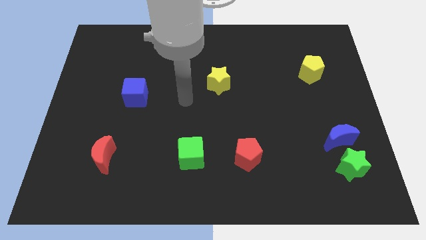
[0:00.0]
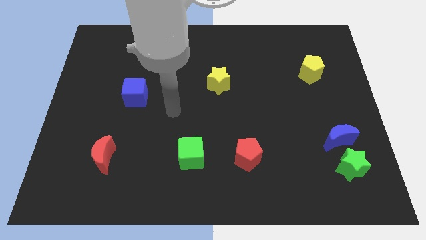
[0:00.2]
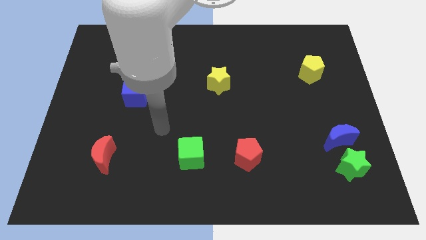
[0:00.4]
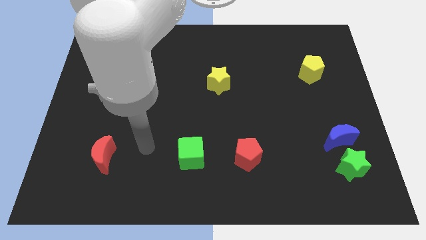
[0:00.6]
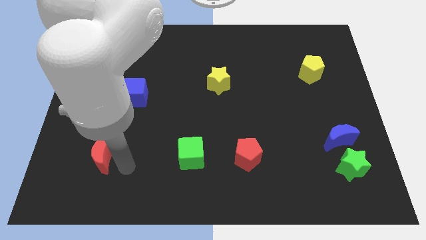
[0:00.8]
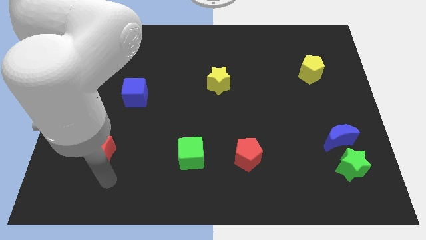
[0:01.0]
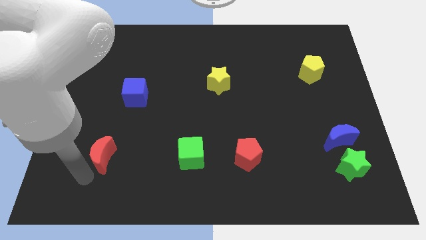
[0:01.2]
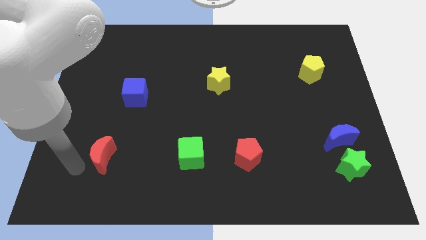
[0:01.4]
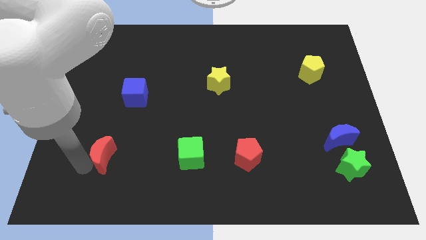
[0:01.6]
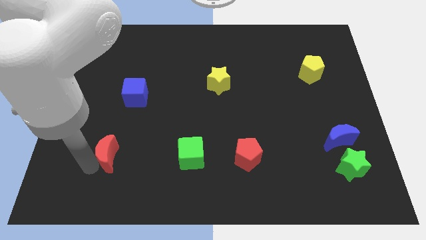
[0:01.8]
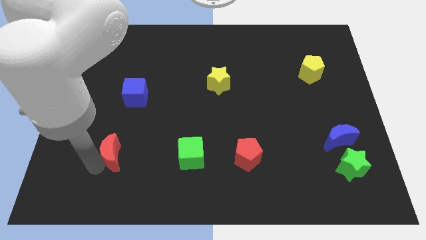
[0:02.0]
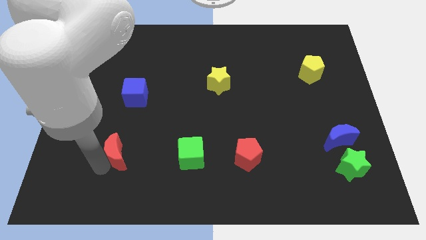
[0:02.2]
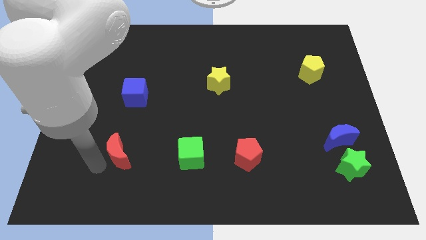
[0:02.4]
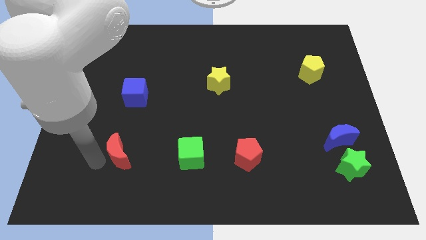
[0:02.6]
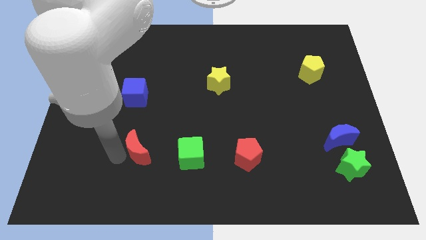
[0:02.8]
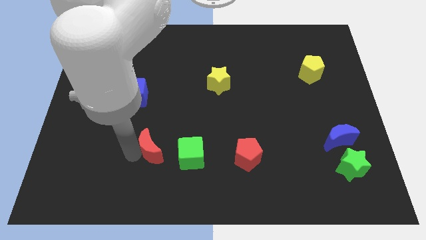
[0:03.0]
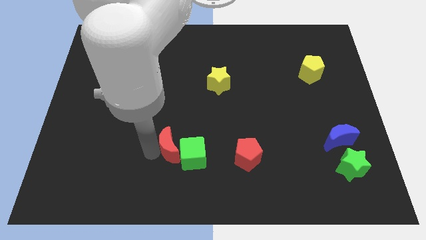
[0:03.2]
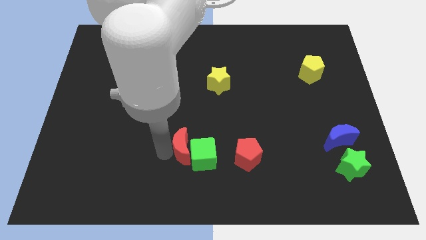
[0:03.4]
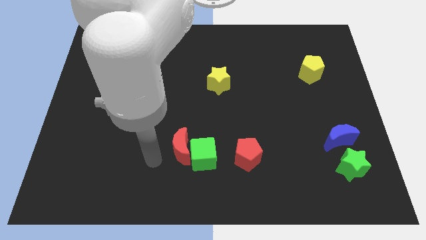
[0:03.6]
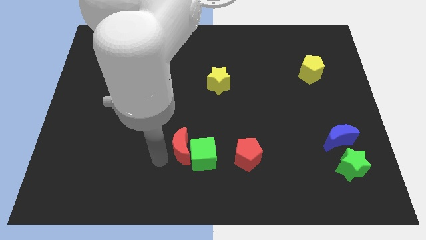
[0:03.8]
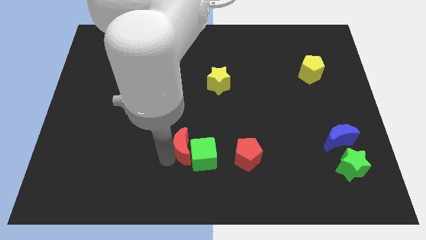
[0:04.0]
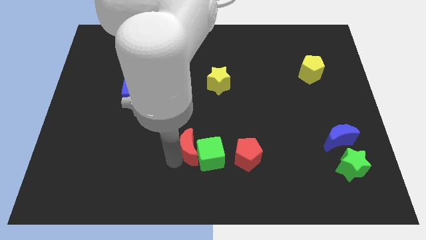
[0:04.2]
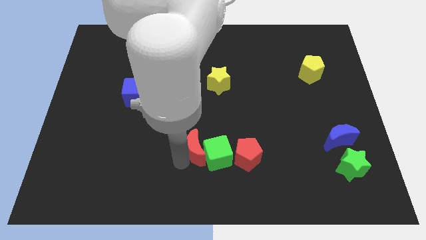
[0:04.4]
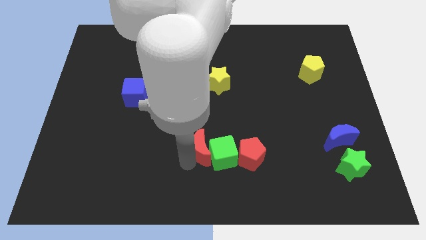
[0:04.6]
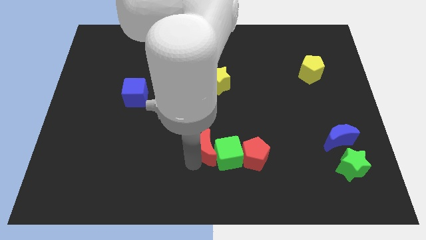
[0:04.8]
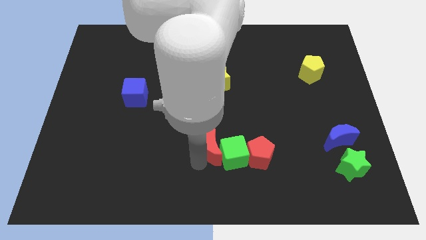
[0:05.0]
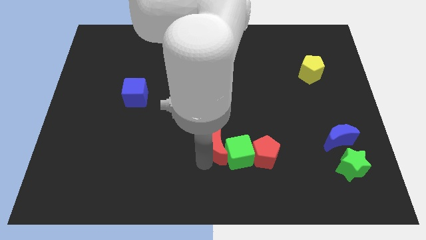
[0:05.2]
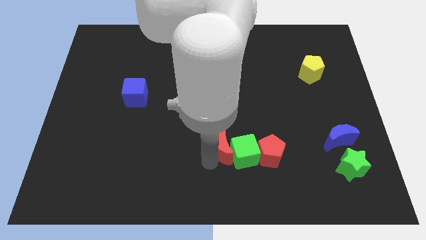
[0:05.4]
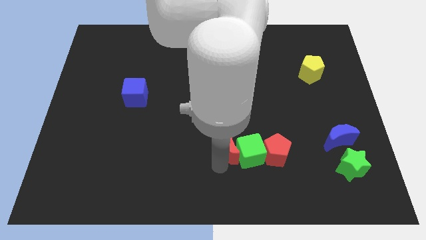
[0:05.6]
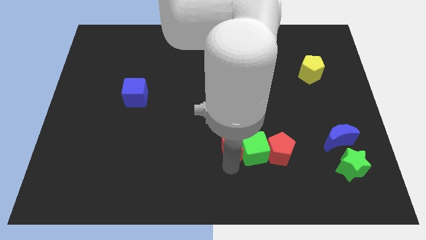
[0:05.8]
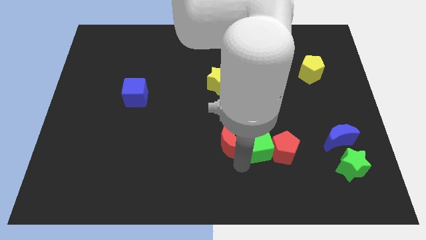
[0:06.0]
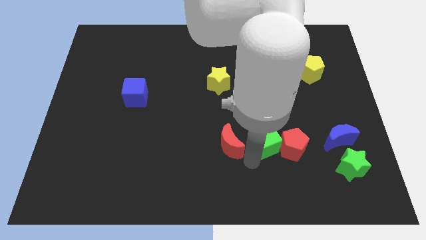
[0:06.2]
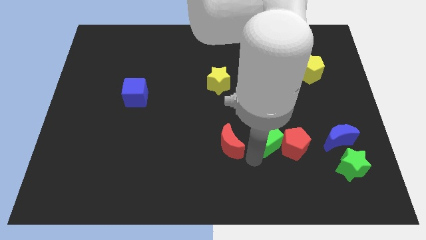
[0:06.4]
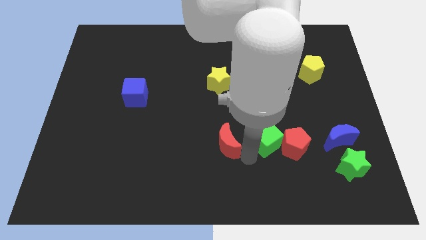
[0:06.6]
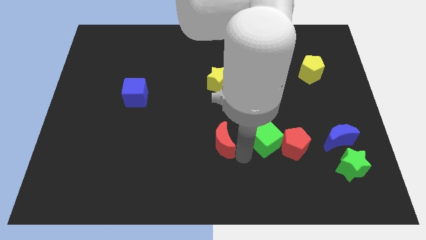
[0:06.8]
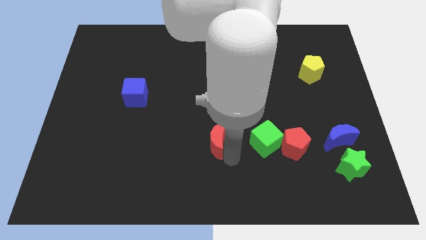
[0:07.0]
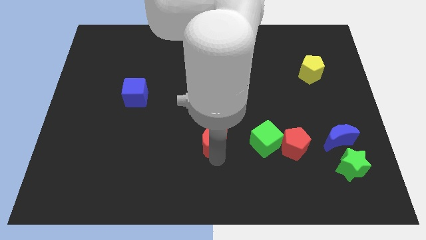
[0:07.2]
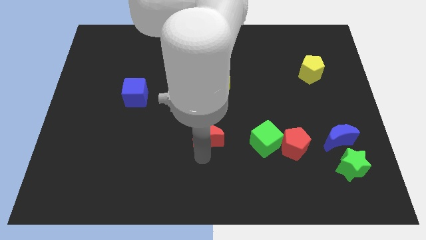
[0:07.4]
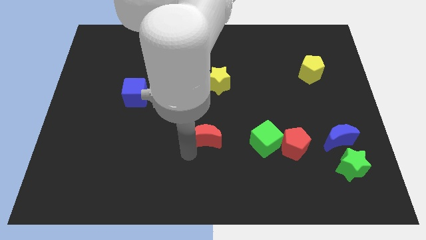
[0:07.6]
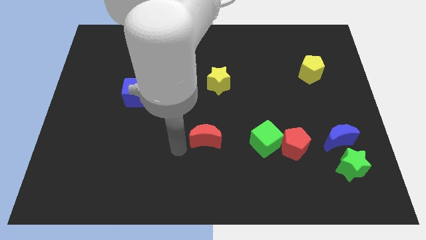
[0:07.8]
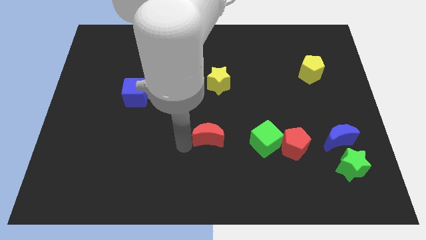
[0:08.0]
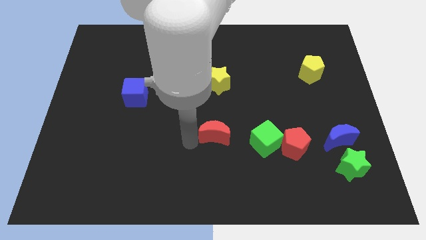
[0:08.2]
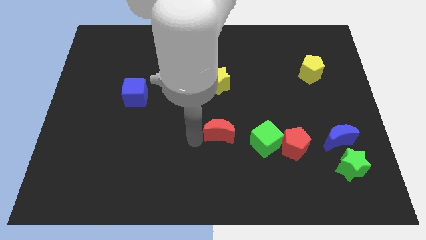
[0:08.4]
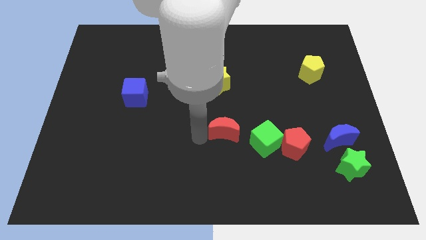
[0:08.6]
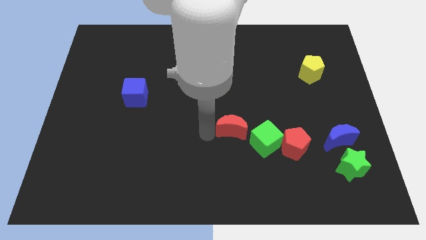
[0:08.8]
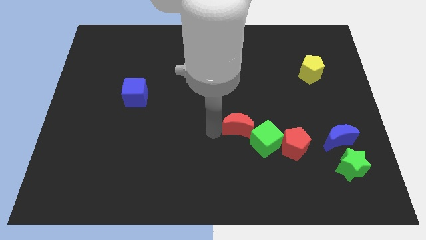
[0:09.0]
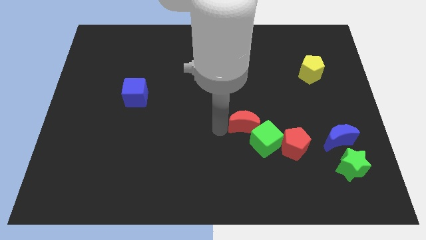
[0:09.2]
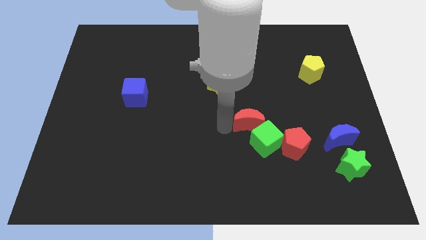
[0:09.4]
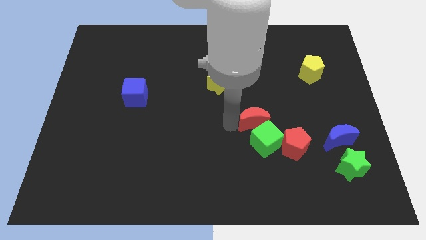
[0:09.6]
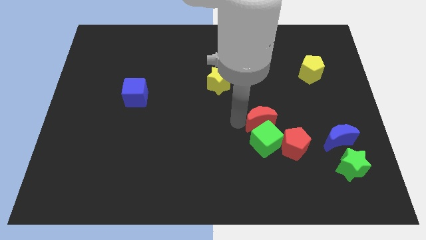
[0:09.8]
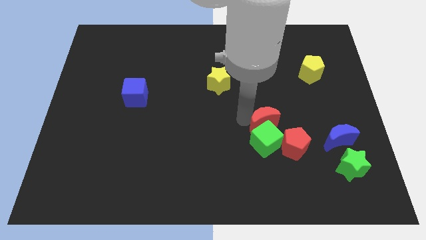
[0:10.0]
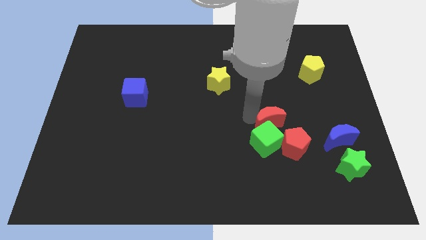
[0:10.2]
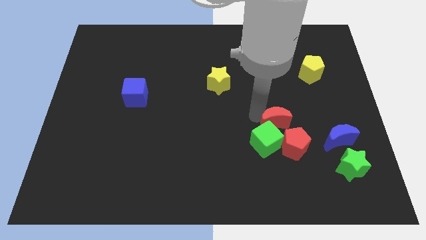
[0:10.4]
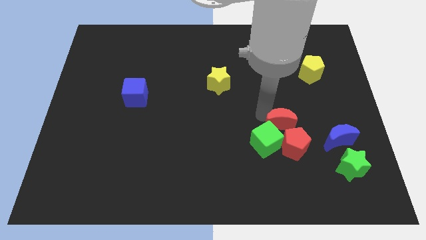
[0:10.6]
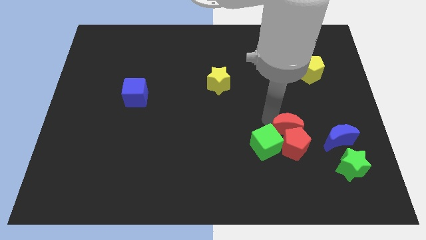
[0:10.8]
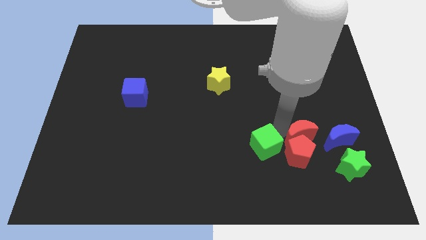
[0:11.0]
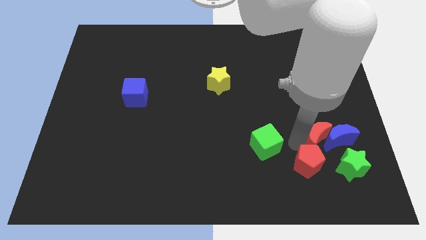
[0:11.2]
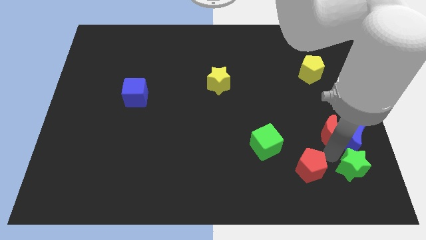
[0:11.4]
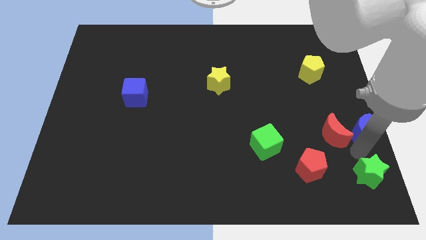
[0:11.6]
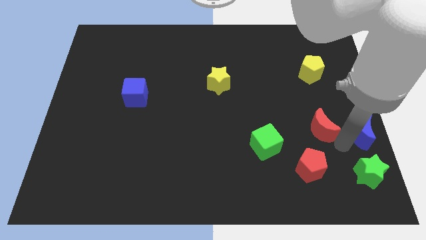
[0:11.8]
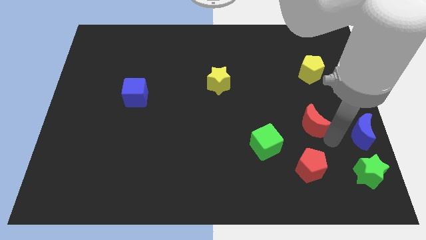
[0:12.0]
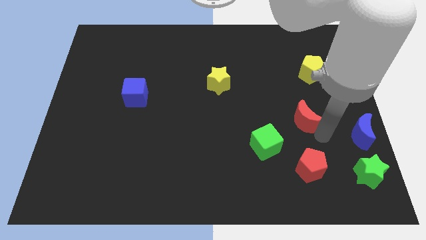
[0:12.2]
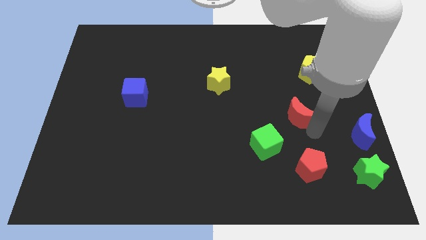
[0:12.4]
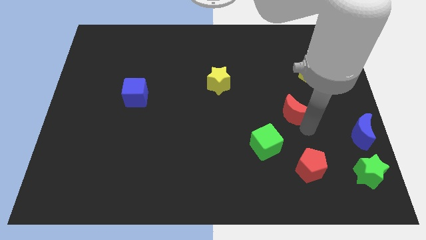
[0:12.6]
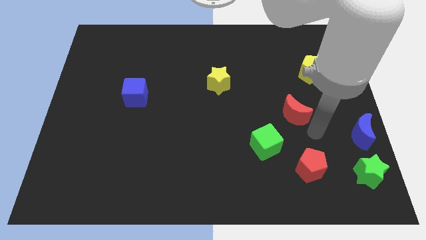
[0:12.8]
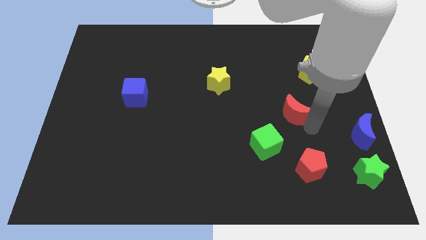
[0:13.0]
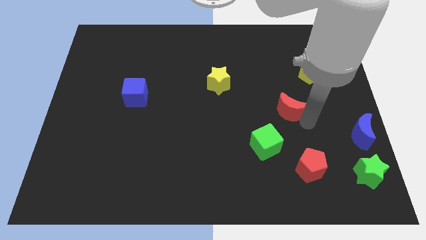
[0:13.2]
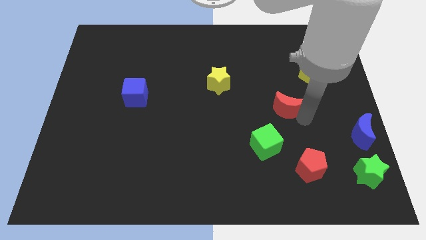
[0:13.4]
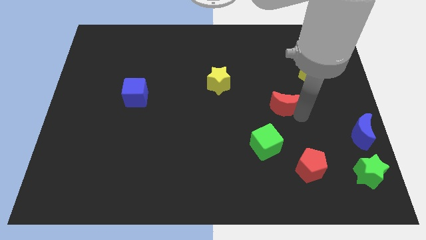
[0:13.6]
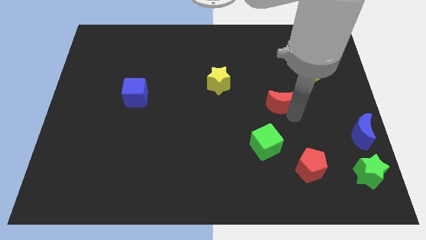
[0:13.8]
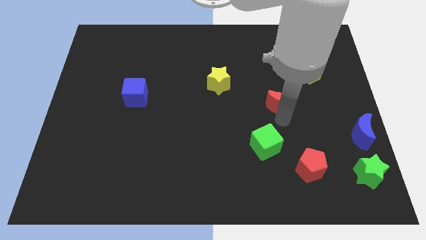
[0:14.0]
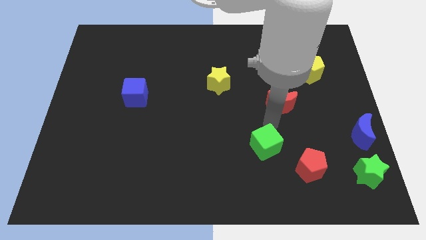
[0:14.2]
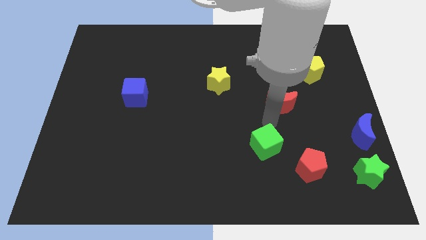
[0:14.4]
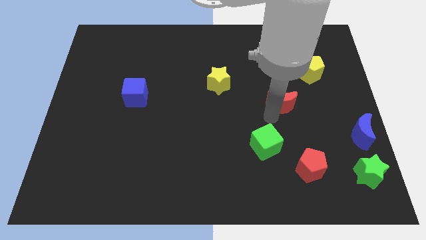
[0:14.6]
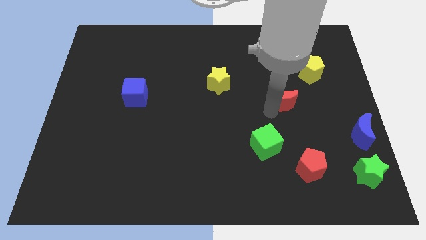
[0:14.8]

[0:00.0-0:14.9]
push the red moon to the bottom left side of the yellow pentagon
